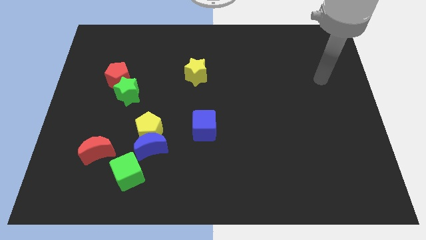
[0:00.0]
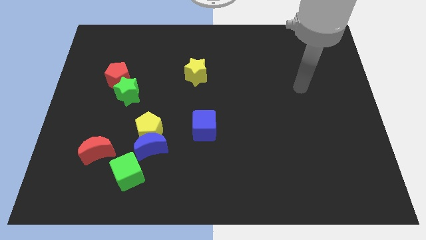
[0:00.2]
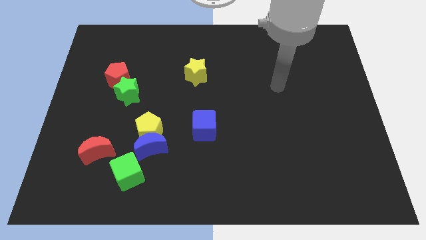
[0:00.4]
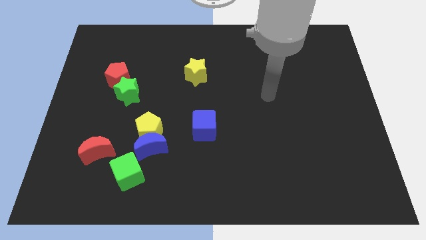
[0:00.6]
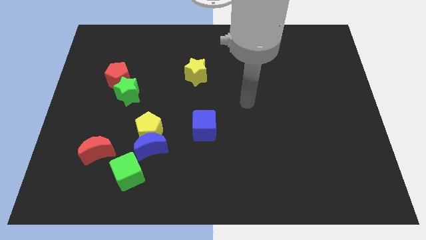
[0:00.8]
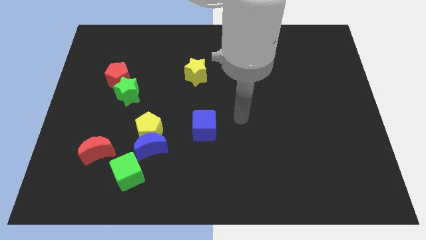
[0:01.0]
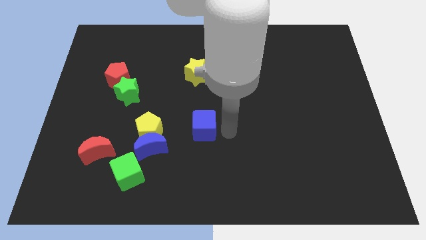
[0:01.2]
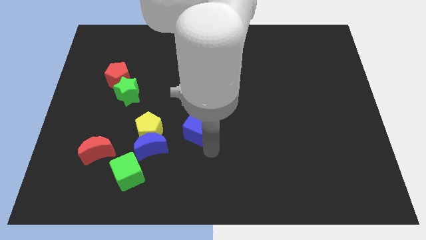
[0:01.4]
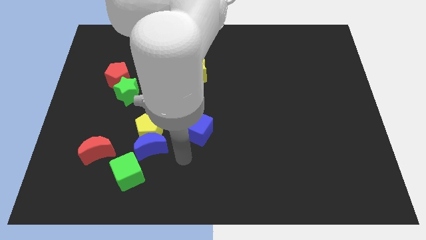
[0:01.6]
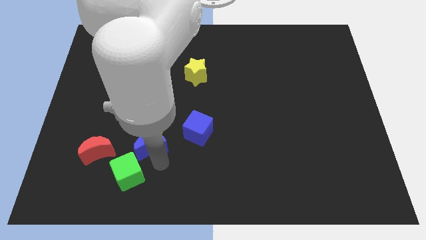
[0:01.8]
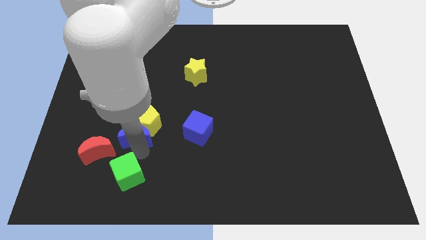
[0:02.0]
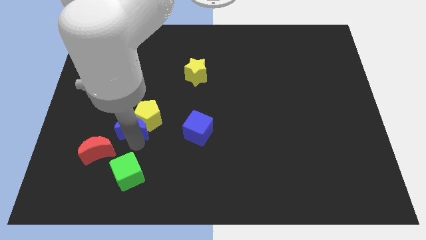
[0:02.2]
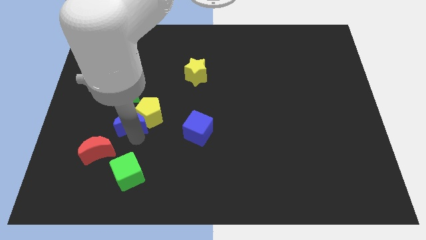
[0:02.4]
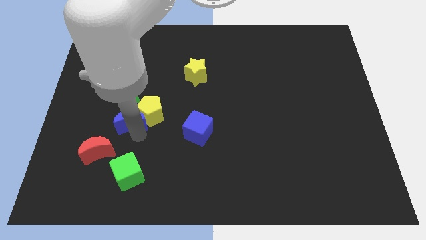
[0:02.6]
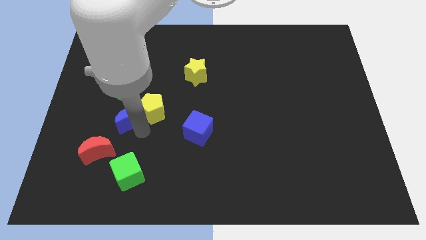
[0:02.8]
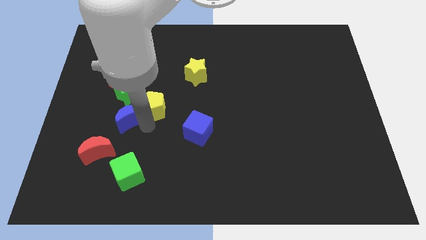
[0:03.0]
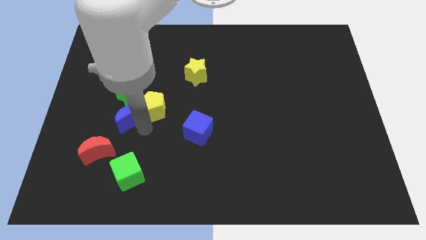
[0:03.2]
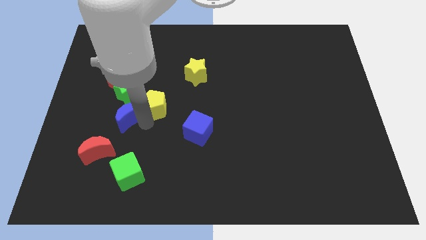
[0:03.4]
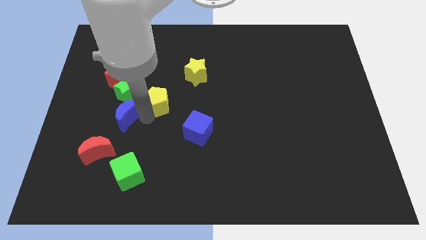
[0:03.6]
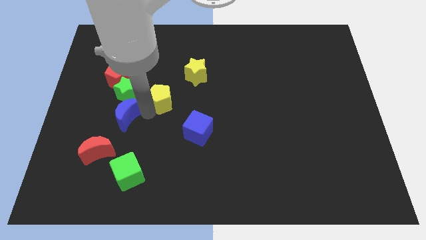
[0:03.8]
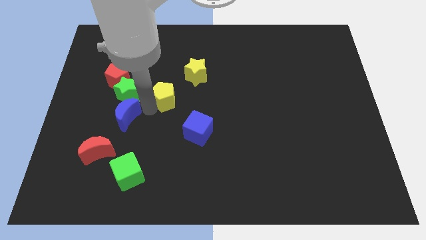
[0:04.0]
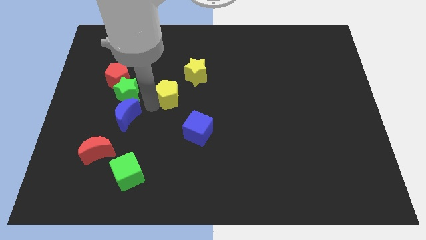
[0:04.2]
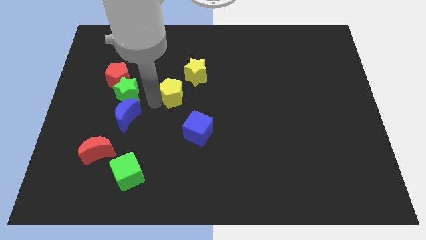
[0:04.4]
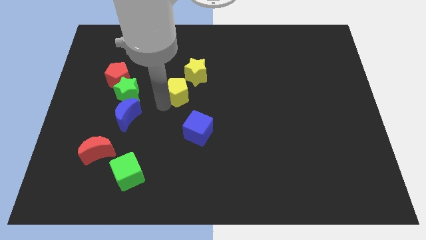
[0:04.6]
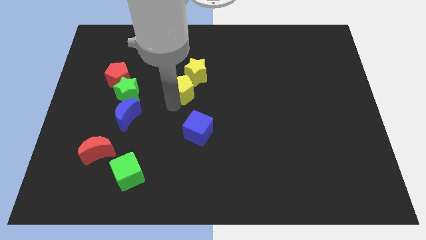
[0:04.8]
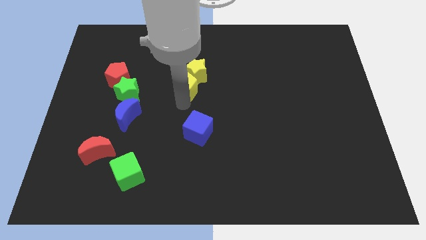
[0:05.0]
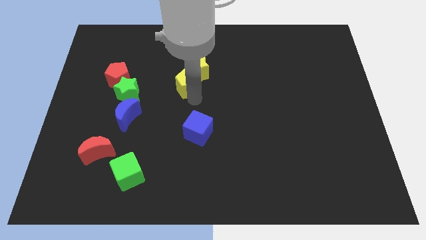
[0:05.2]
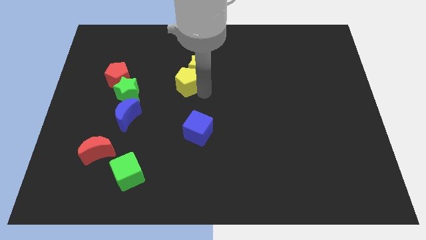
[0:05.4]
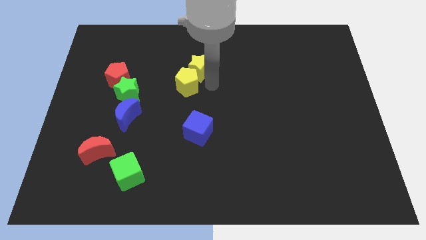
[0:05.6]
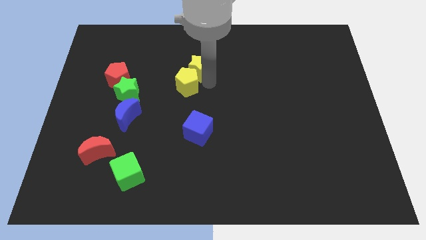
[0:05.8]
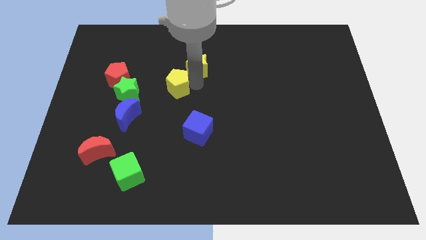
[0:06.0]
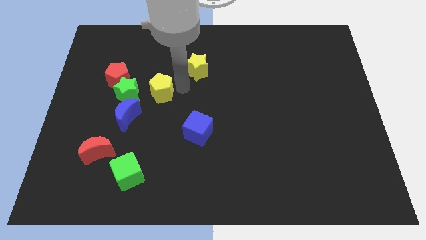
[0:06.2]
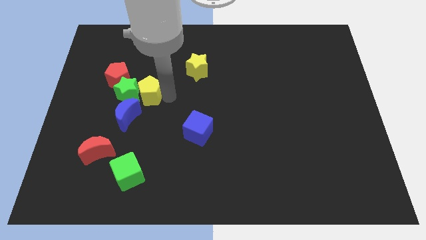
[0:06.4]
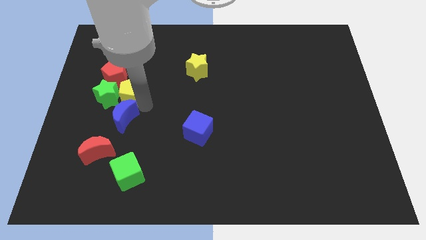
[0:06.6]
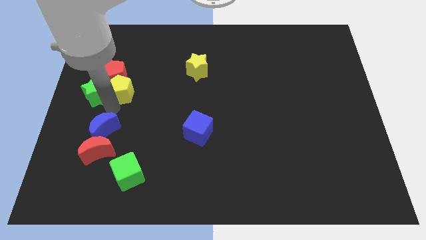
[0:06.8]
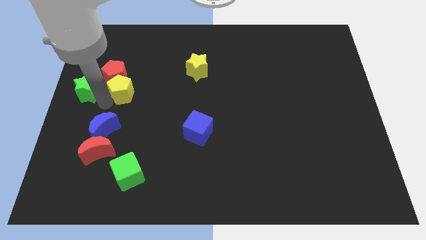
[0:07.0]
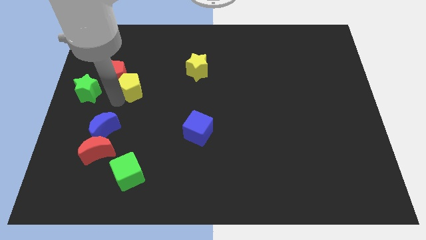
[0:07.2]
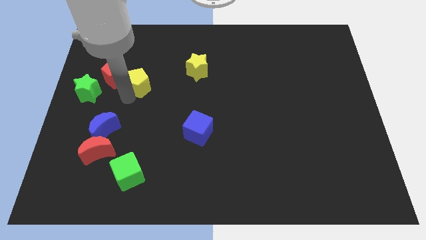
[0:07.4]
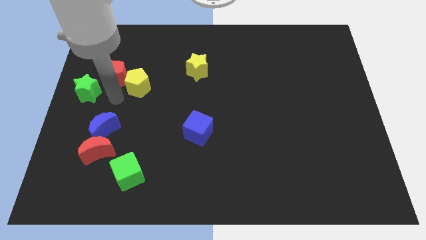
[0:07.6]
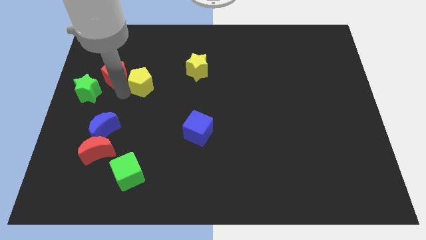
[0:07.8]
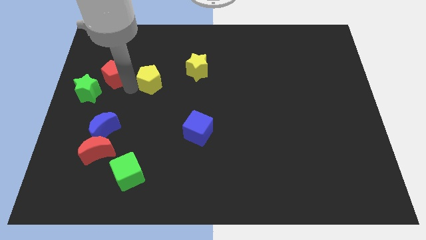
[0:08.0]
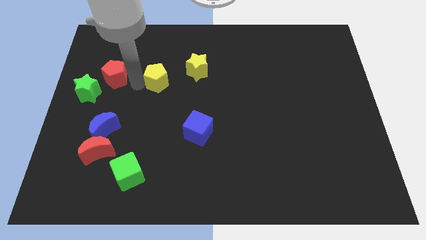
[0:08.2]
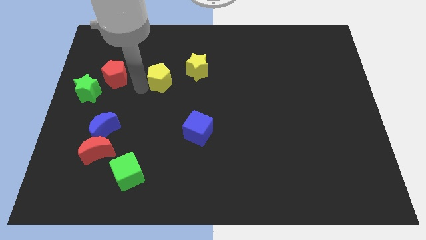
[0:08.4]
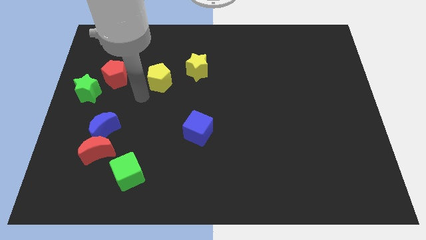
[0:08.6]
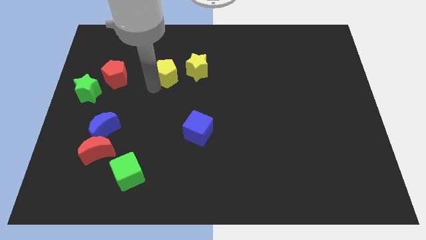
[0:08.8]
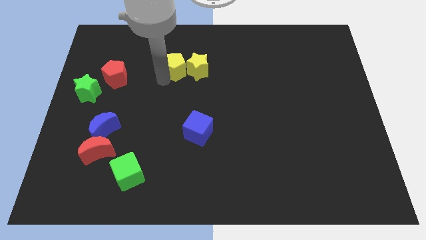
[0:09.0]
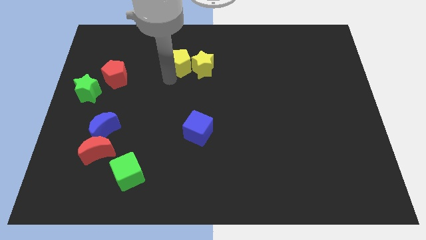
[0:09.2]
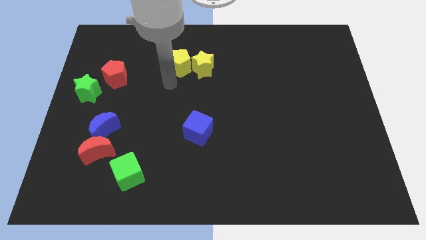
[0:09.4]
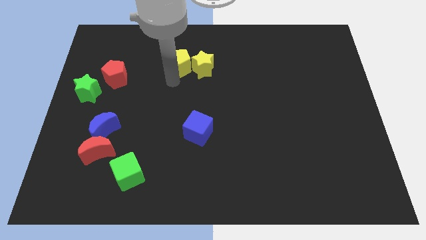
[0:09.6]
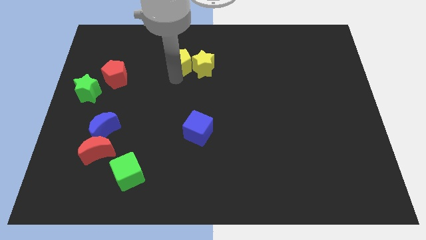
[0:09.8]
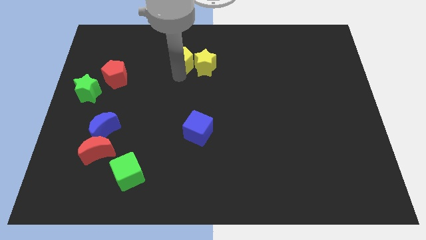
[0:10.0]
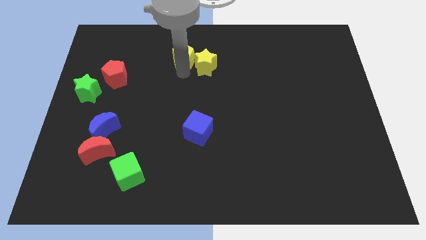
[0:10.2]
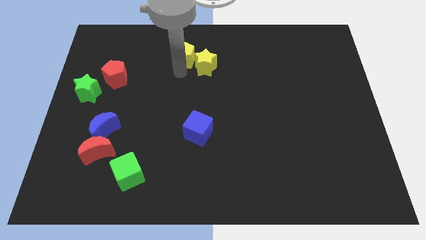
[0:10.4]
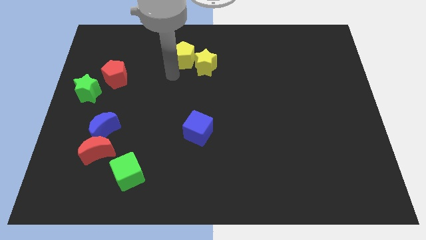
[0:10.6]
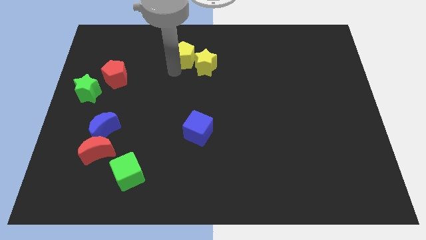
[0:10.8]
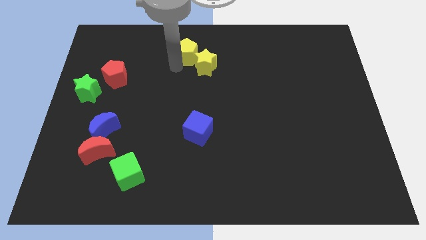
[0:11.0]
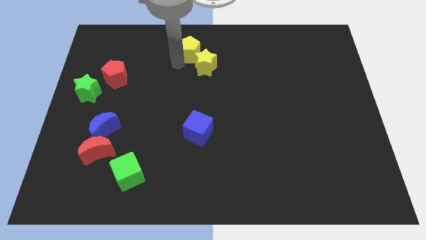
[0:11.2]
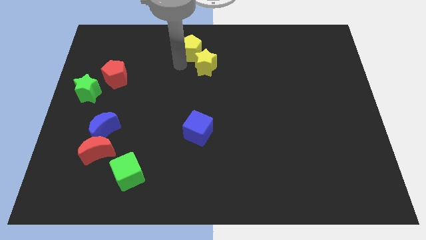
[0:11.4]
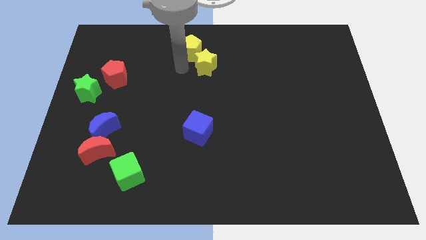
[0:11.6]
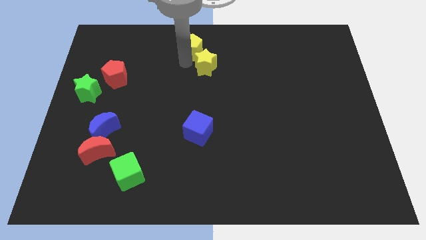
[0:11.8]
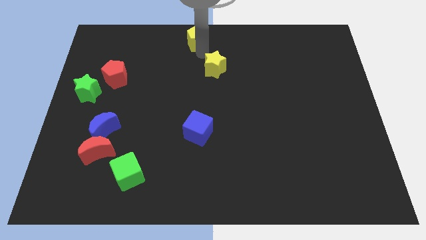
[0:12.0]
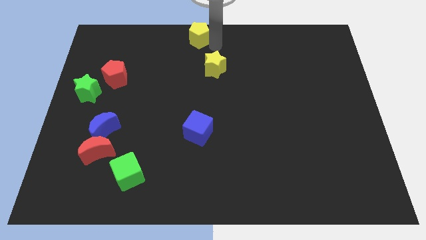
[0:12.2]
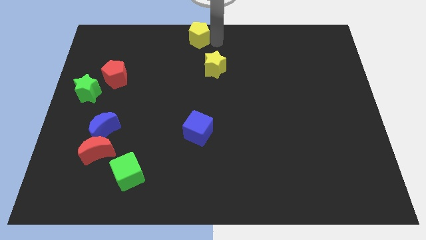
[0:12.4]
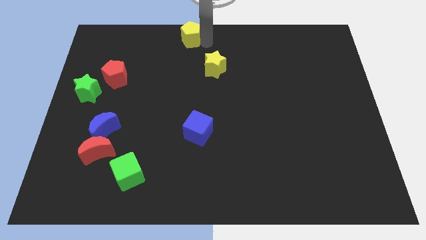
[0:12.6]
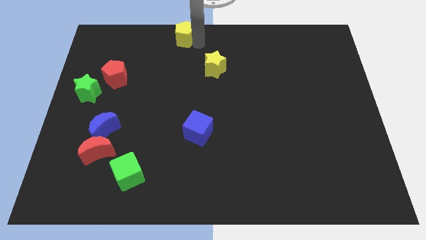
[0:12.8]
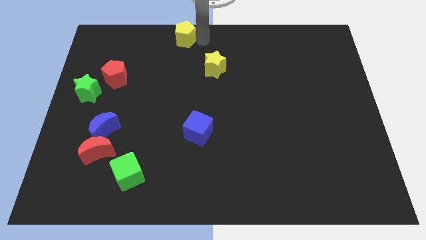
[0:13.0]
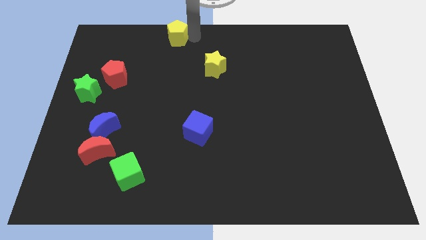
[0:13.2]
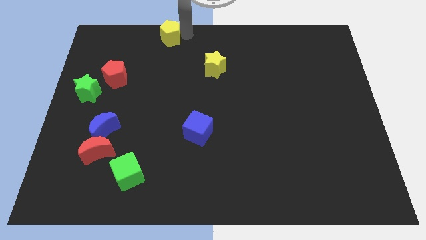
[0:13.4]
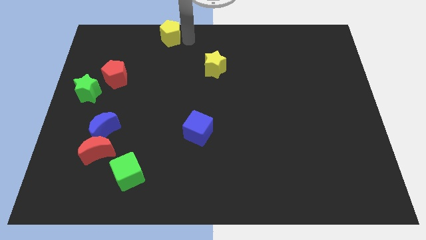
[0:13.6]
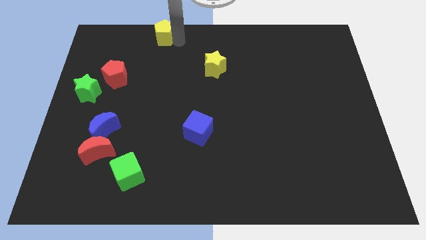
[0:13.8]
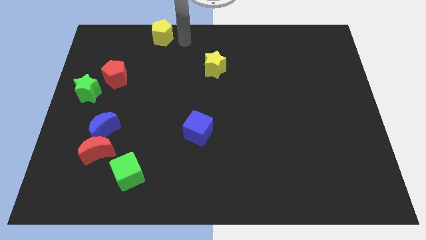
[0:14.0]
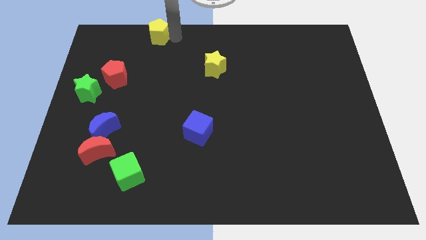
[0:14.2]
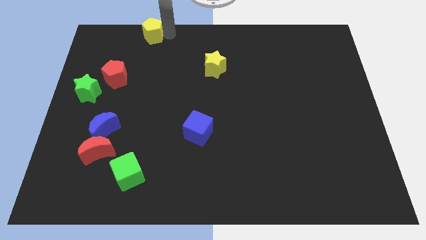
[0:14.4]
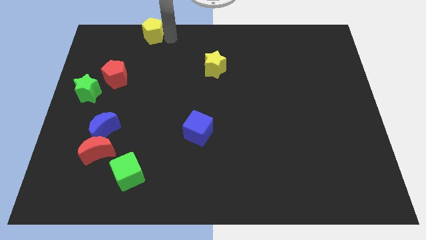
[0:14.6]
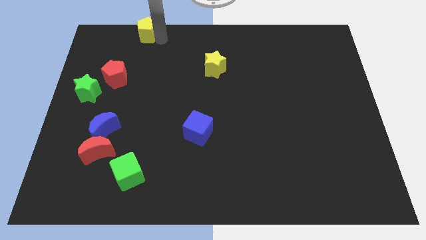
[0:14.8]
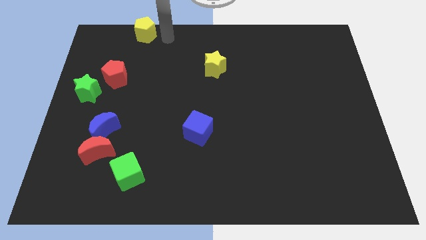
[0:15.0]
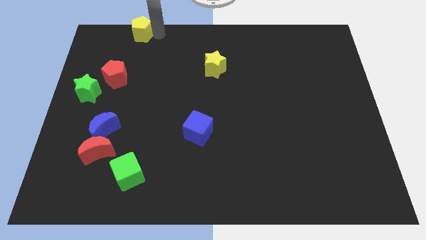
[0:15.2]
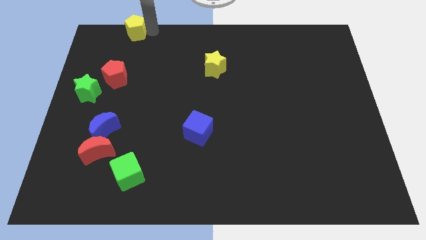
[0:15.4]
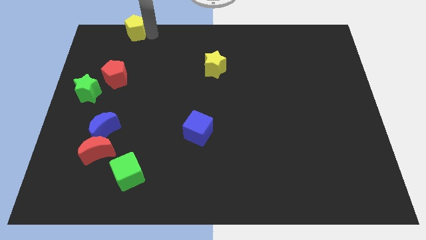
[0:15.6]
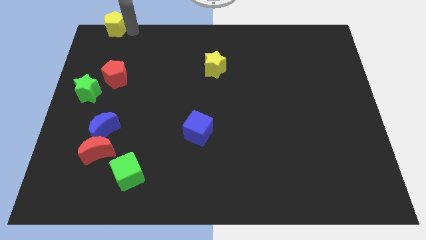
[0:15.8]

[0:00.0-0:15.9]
slide the yellow pentagon to the upper left corner
